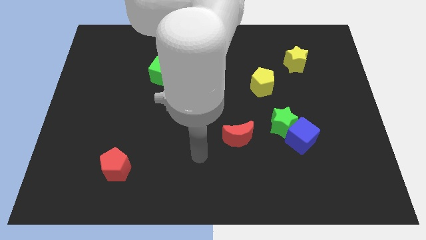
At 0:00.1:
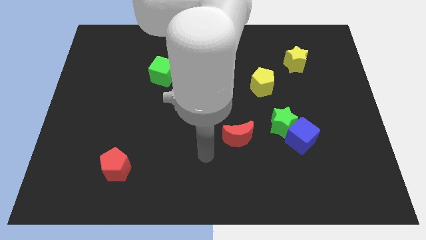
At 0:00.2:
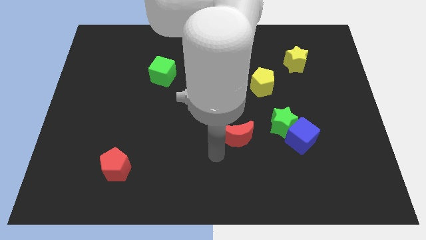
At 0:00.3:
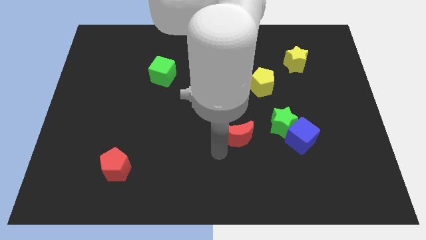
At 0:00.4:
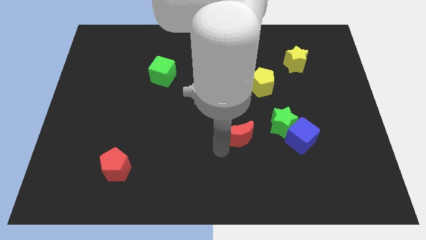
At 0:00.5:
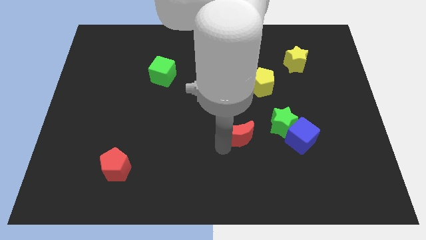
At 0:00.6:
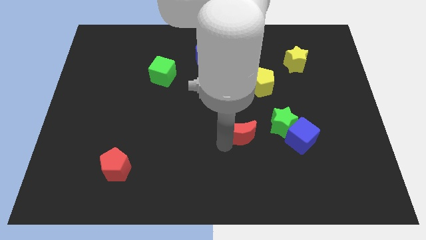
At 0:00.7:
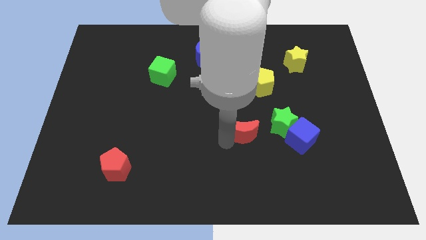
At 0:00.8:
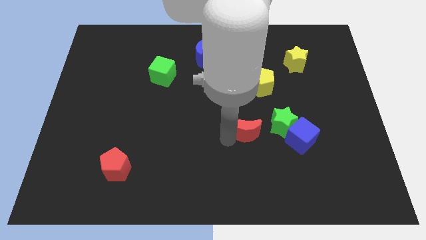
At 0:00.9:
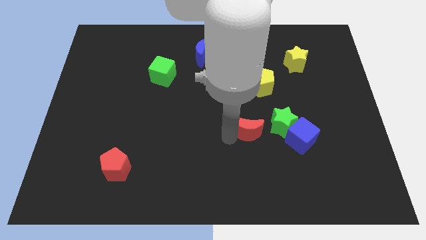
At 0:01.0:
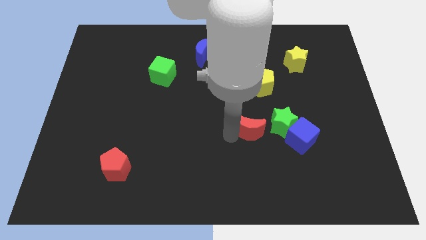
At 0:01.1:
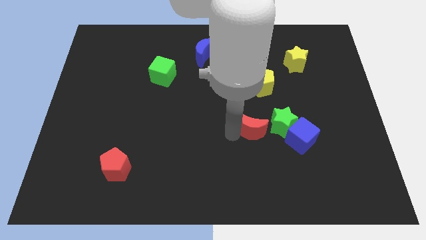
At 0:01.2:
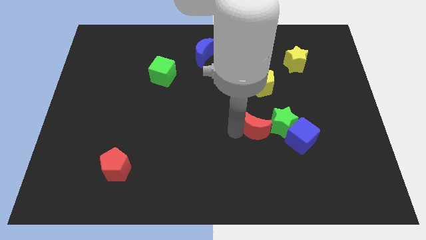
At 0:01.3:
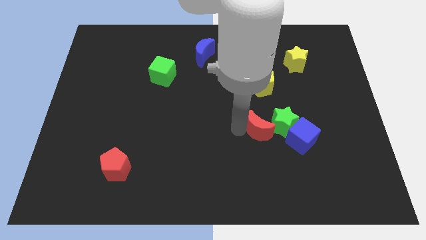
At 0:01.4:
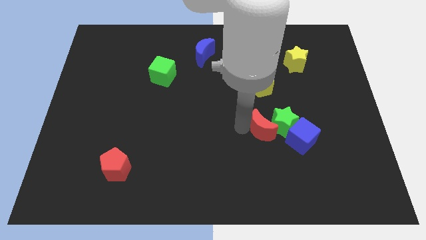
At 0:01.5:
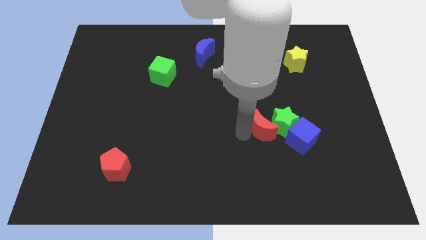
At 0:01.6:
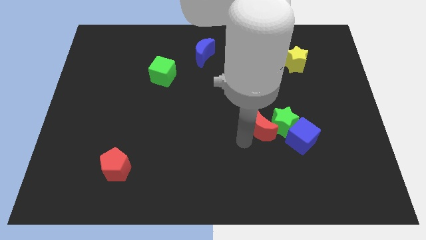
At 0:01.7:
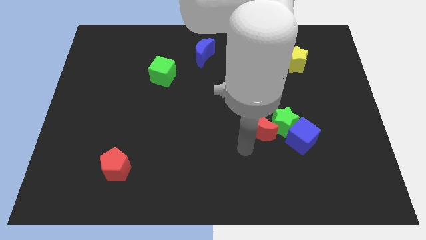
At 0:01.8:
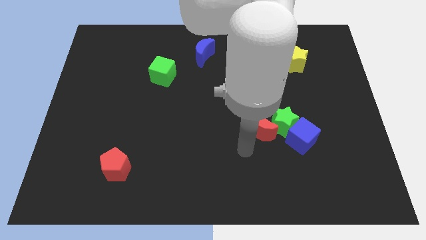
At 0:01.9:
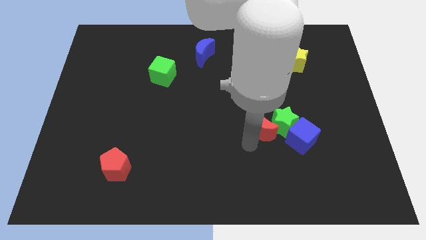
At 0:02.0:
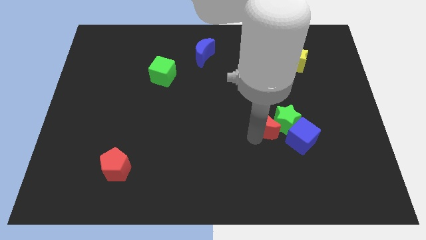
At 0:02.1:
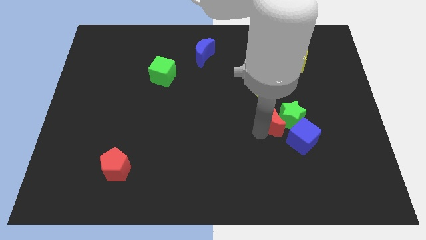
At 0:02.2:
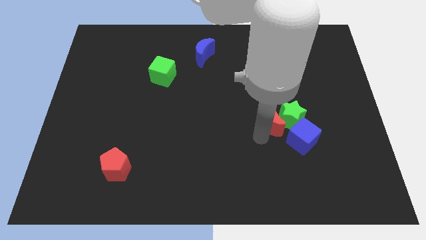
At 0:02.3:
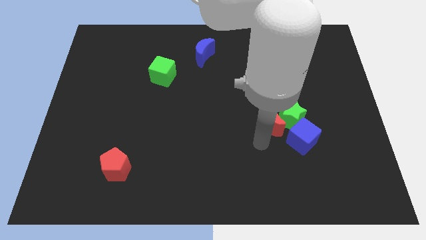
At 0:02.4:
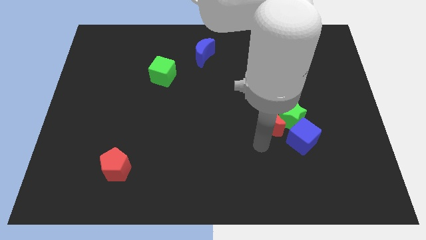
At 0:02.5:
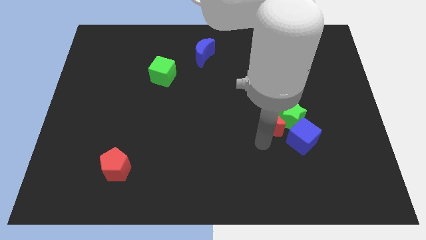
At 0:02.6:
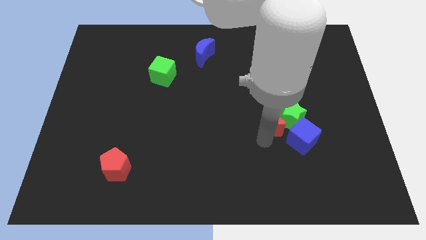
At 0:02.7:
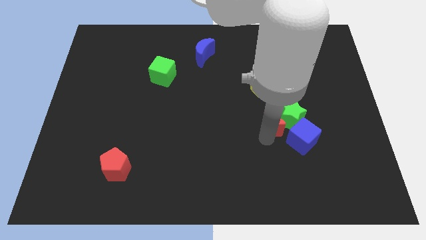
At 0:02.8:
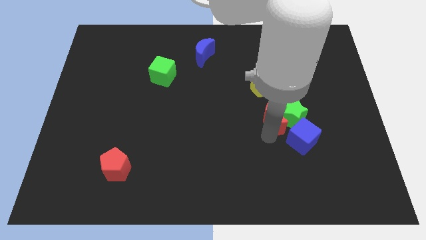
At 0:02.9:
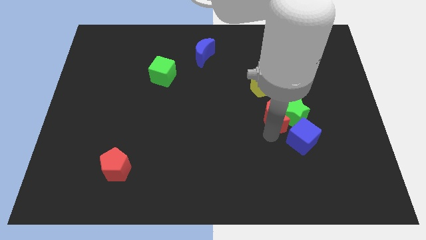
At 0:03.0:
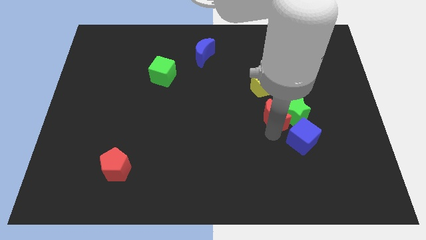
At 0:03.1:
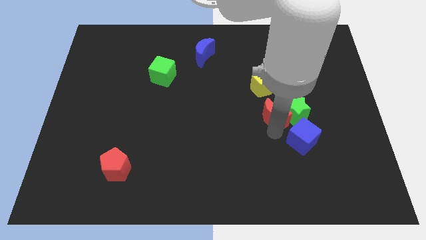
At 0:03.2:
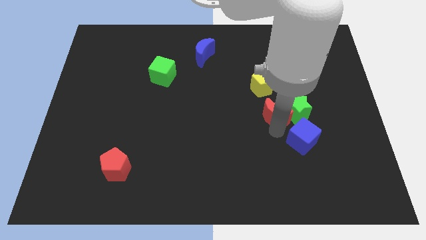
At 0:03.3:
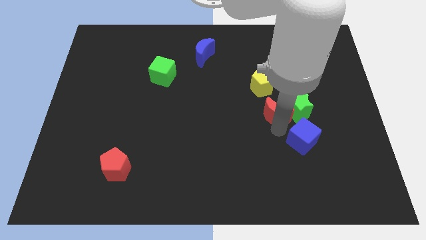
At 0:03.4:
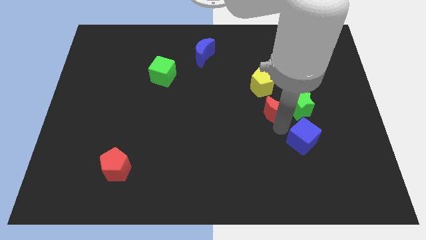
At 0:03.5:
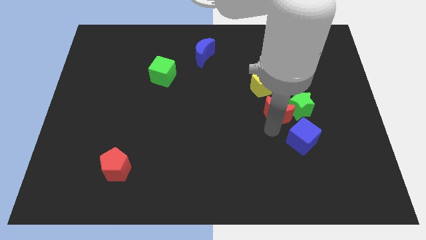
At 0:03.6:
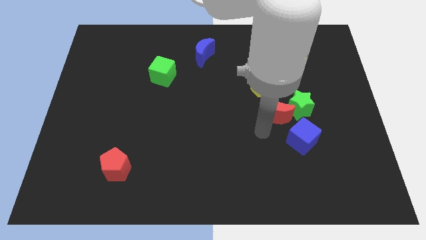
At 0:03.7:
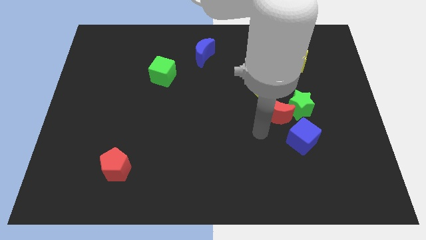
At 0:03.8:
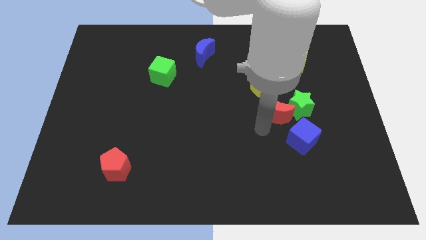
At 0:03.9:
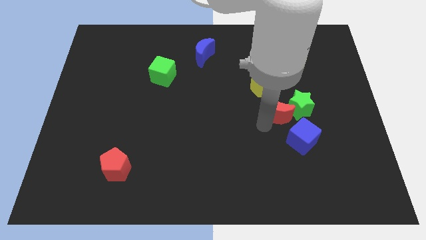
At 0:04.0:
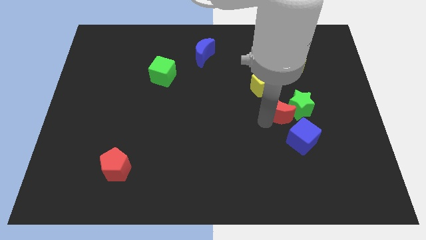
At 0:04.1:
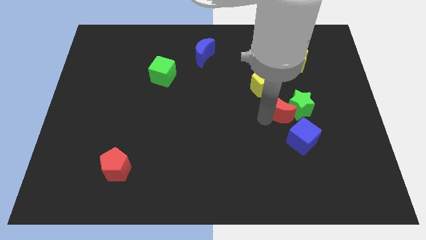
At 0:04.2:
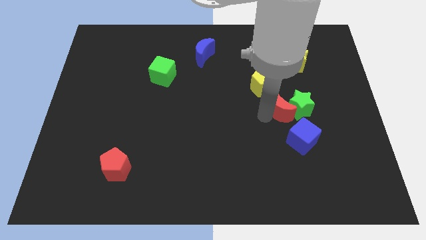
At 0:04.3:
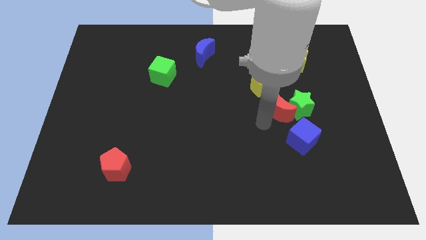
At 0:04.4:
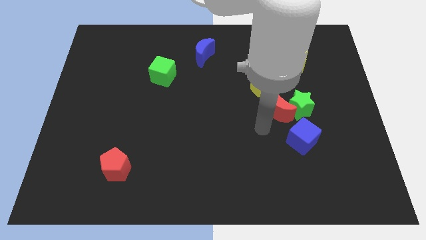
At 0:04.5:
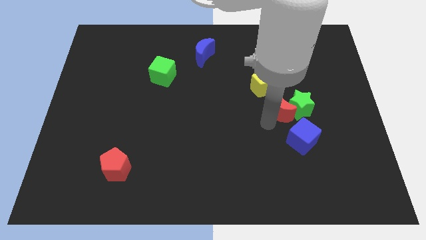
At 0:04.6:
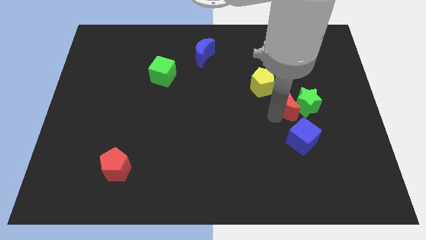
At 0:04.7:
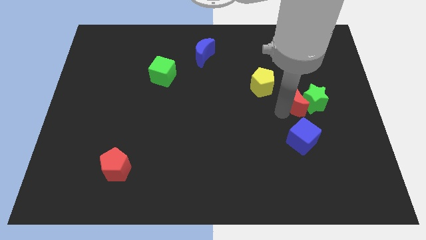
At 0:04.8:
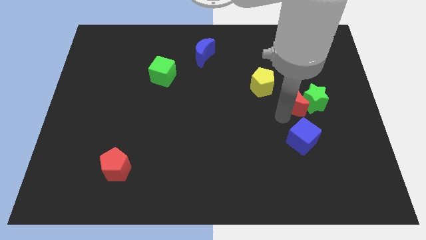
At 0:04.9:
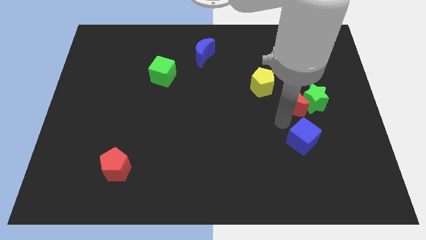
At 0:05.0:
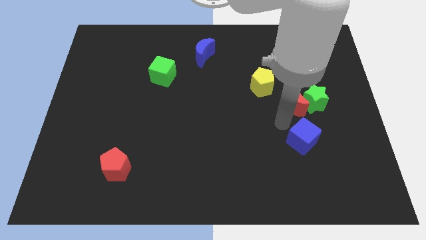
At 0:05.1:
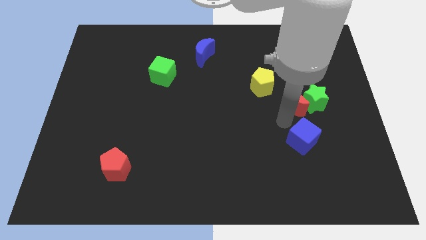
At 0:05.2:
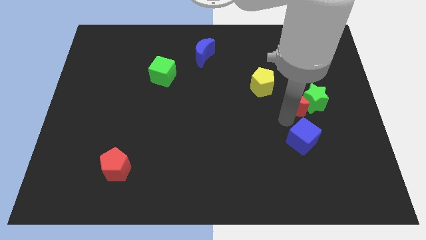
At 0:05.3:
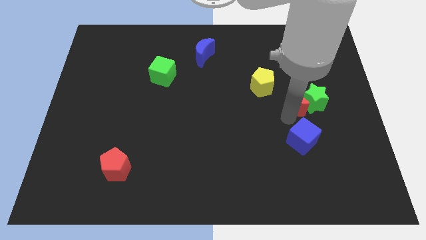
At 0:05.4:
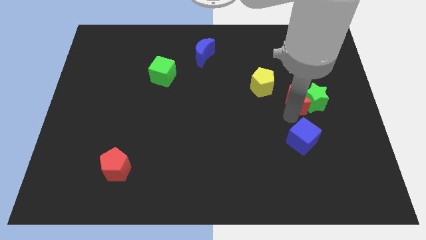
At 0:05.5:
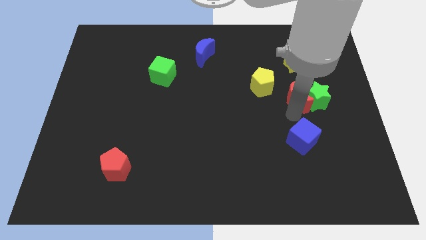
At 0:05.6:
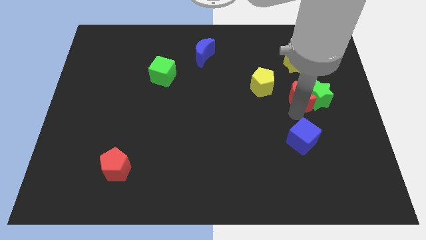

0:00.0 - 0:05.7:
move the red moon to the right side of the yellow pentagon

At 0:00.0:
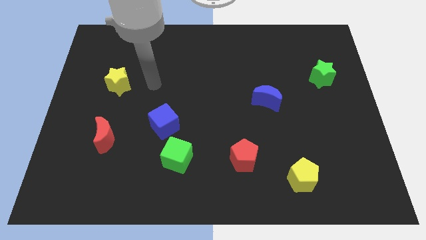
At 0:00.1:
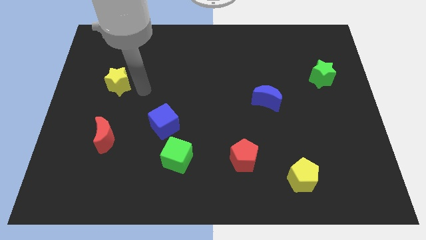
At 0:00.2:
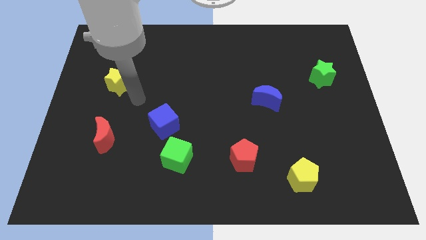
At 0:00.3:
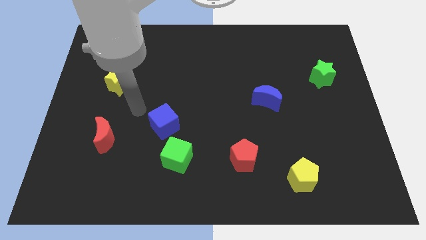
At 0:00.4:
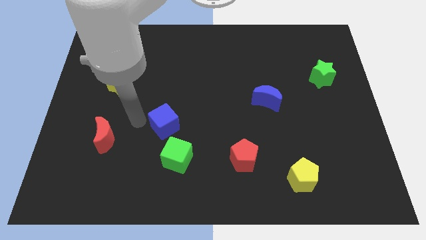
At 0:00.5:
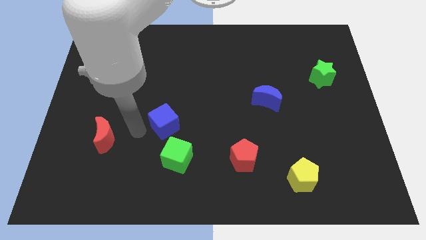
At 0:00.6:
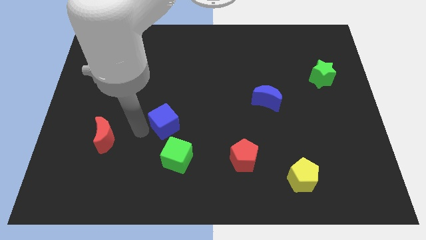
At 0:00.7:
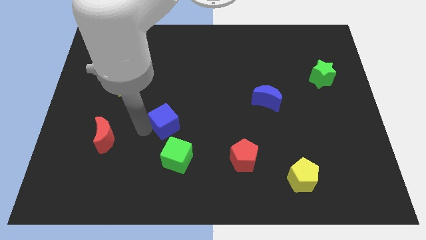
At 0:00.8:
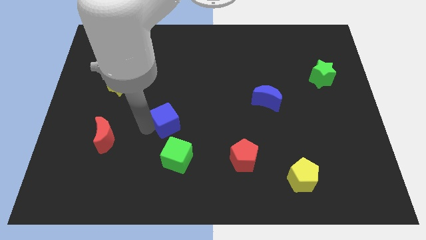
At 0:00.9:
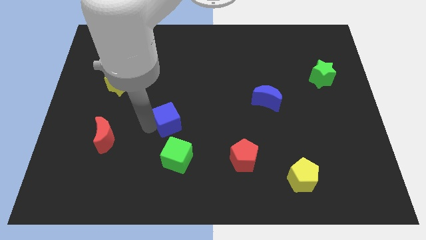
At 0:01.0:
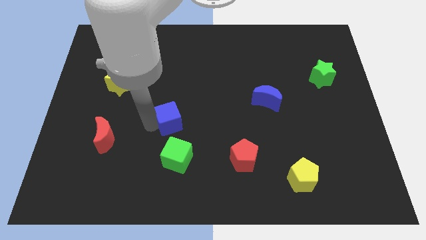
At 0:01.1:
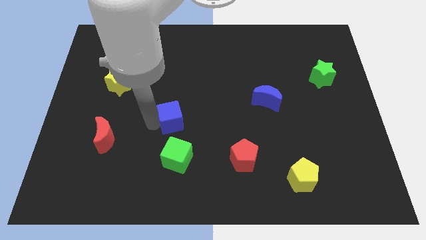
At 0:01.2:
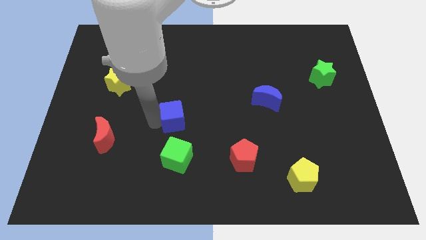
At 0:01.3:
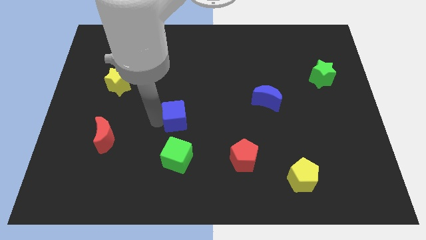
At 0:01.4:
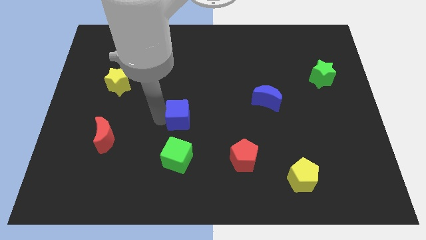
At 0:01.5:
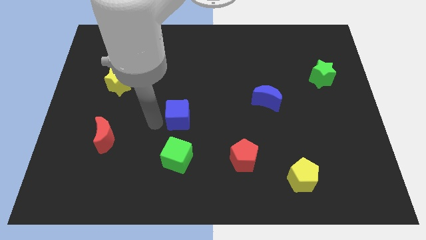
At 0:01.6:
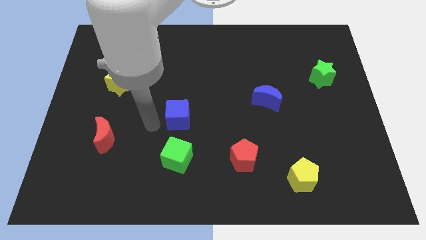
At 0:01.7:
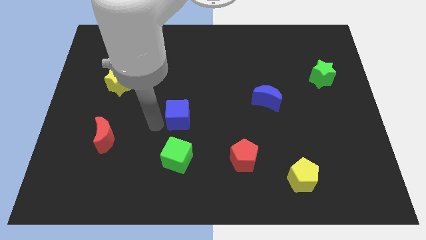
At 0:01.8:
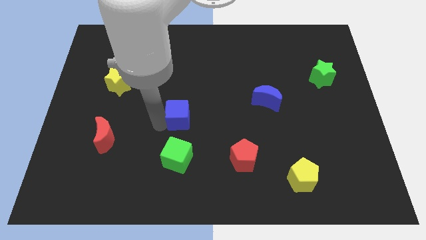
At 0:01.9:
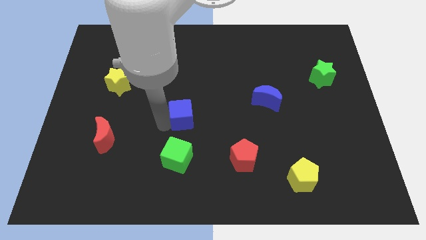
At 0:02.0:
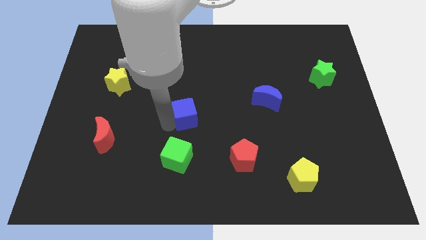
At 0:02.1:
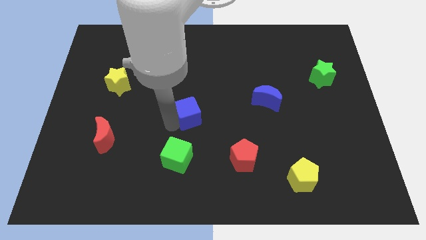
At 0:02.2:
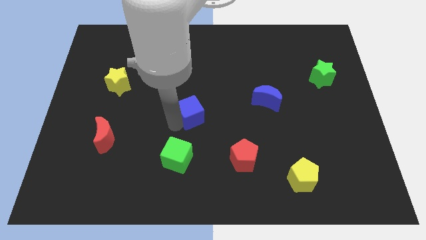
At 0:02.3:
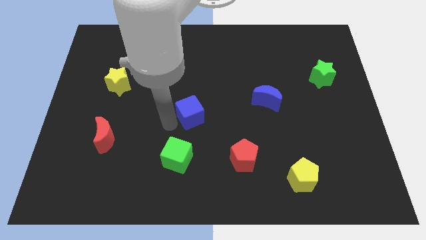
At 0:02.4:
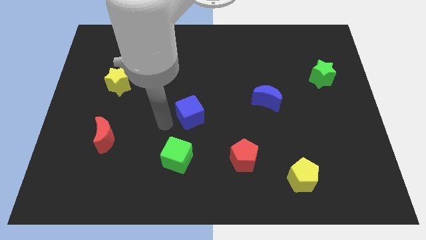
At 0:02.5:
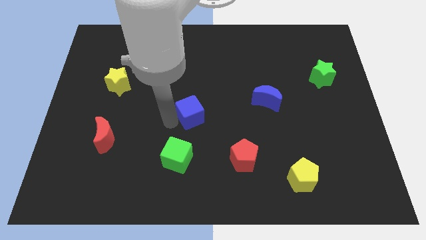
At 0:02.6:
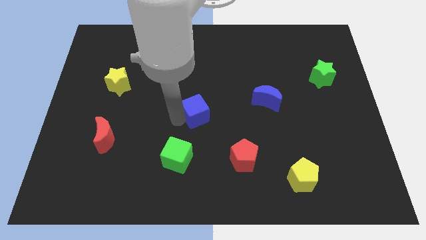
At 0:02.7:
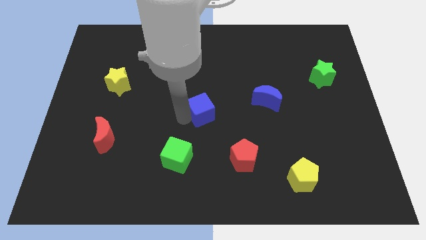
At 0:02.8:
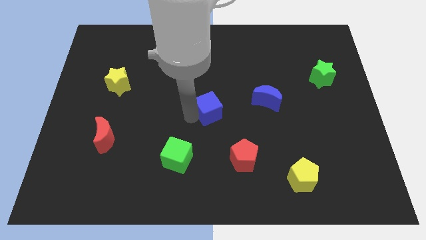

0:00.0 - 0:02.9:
put the blue cube just left of the blue moon
